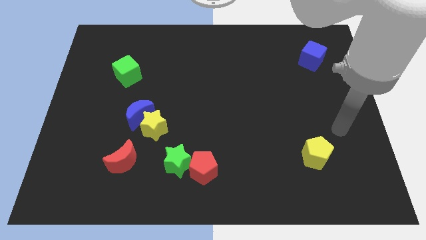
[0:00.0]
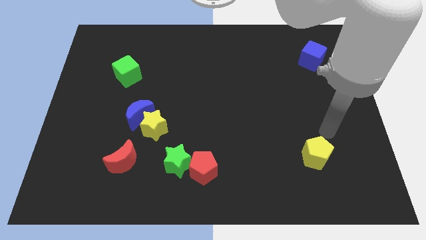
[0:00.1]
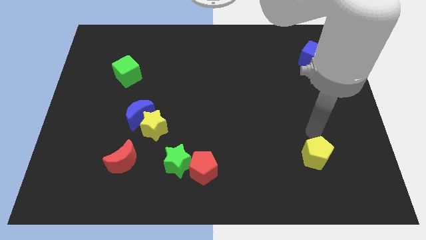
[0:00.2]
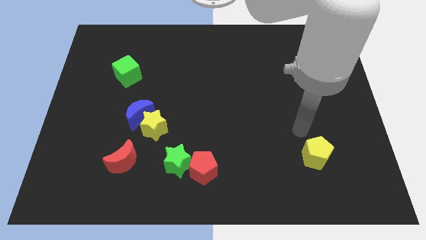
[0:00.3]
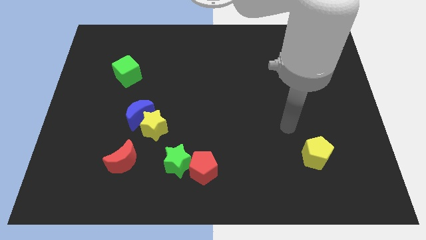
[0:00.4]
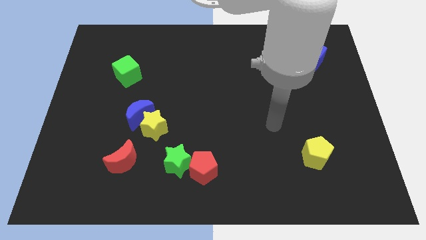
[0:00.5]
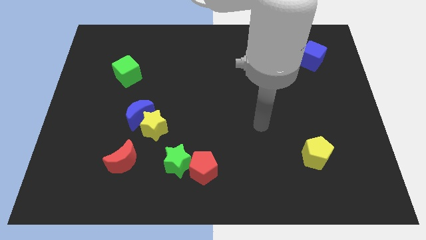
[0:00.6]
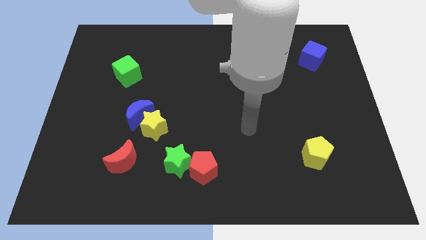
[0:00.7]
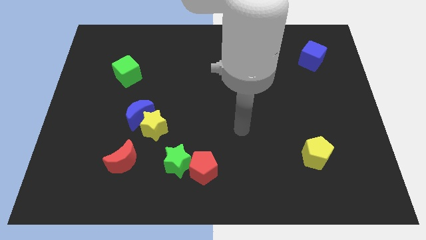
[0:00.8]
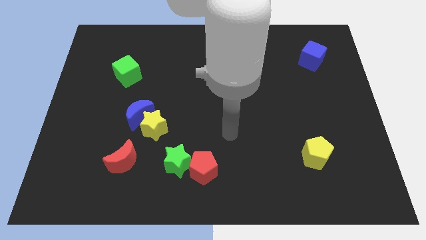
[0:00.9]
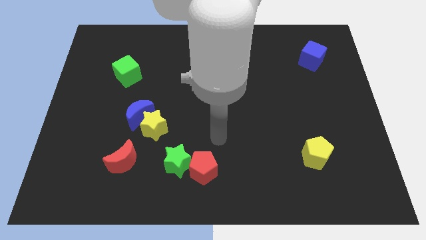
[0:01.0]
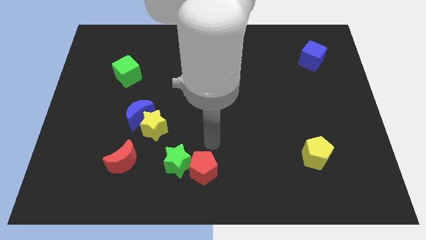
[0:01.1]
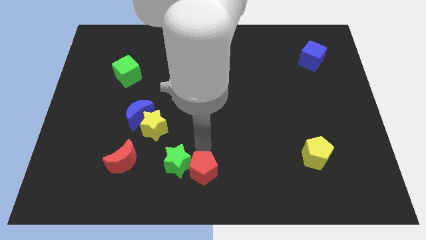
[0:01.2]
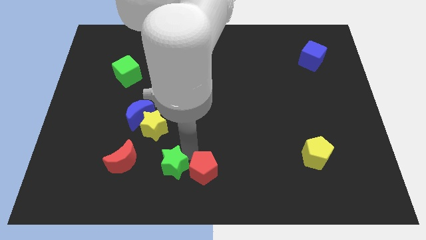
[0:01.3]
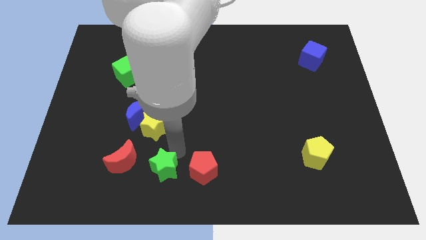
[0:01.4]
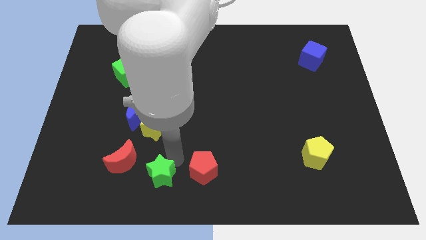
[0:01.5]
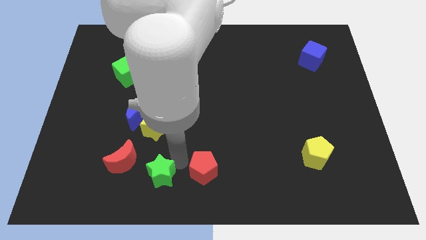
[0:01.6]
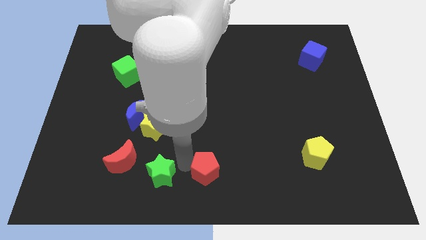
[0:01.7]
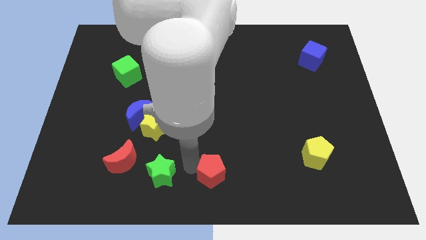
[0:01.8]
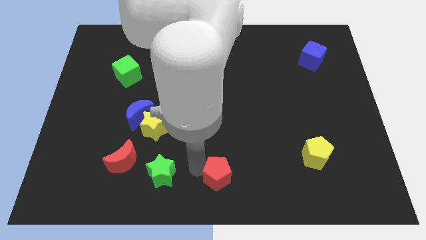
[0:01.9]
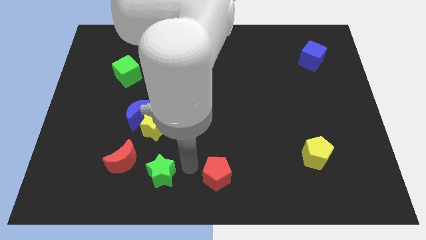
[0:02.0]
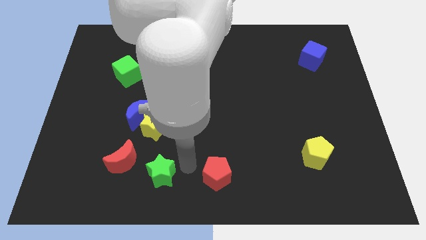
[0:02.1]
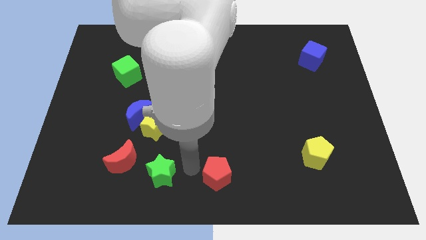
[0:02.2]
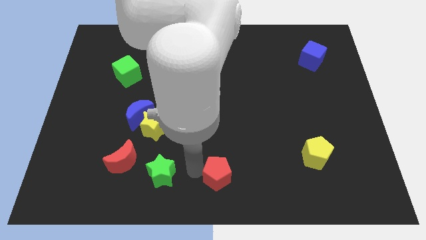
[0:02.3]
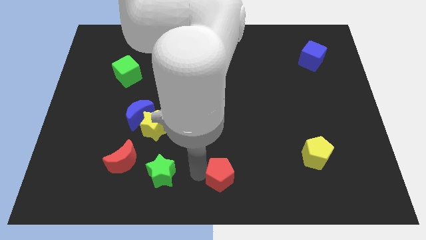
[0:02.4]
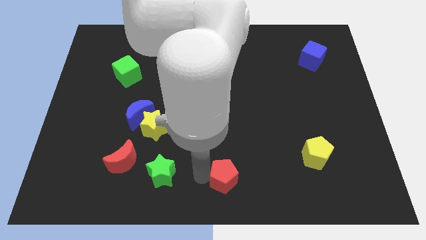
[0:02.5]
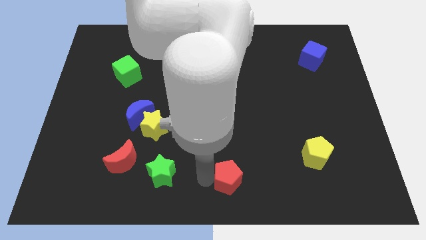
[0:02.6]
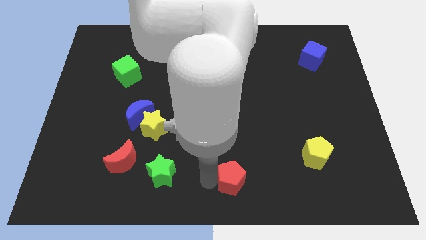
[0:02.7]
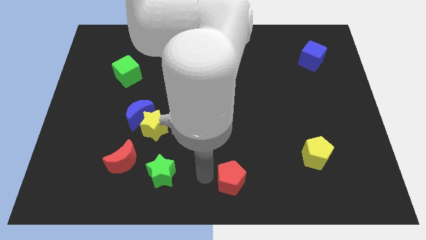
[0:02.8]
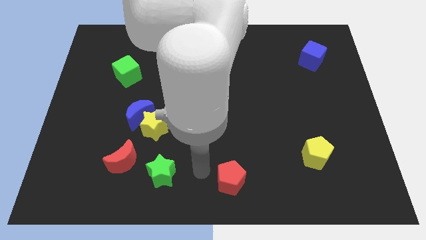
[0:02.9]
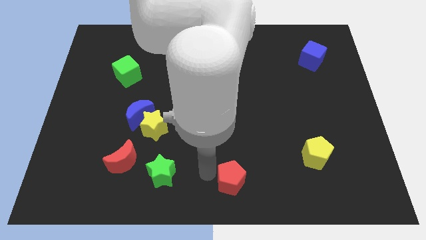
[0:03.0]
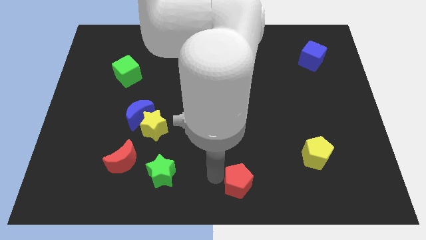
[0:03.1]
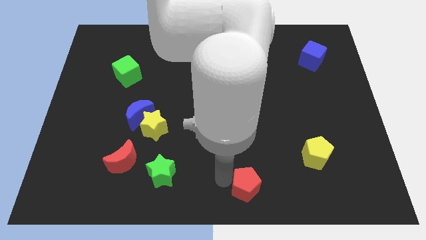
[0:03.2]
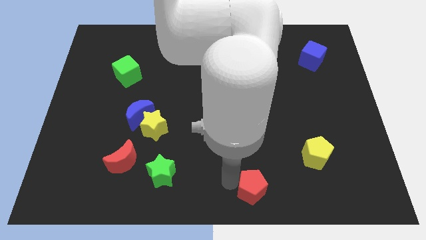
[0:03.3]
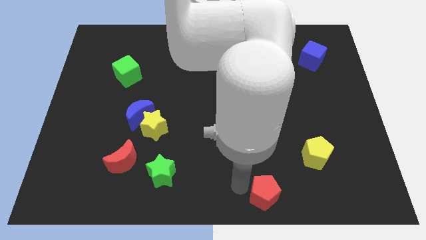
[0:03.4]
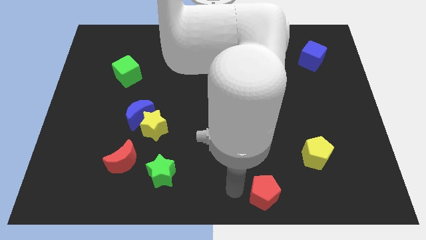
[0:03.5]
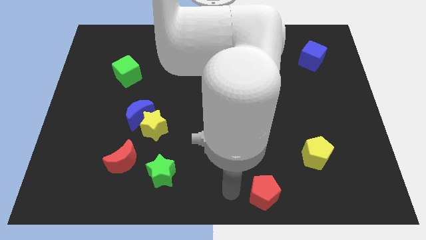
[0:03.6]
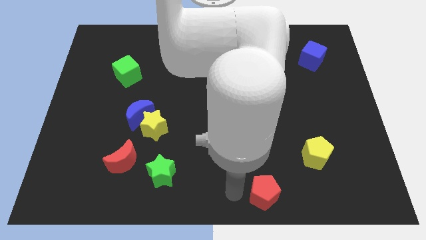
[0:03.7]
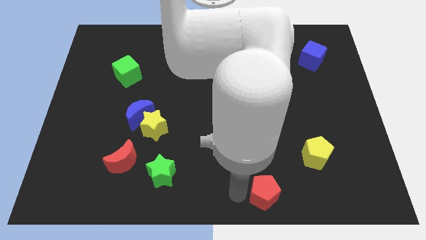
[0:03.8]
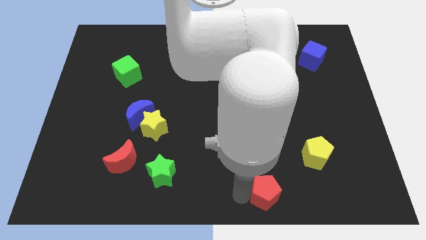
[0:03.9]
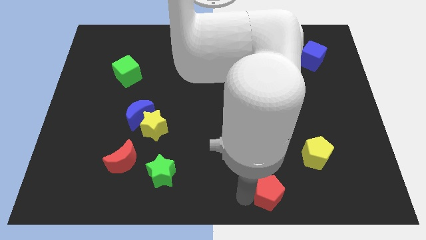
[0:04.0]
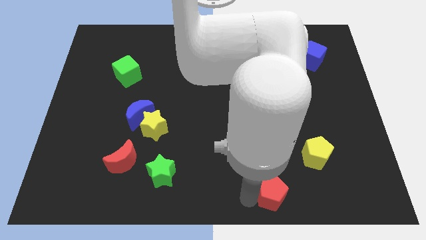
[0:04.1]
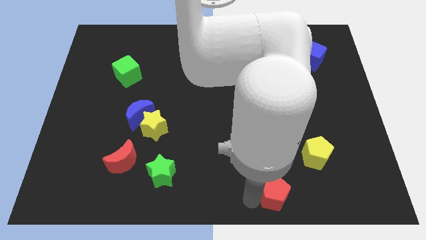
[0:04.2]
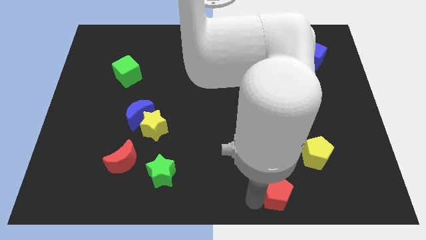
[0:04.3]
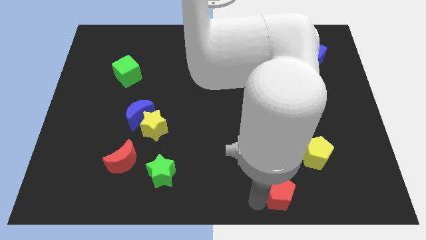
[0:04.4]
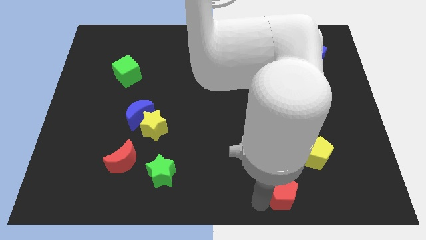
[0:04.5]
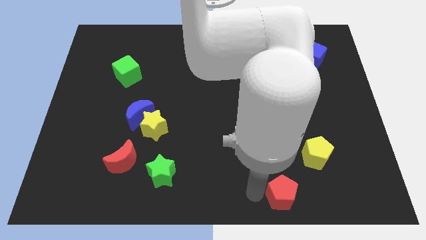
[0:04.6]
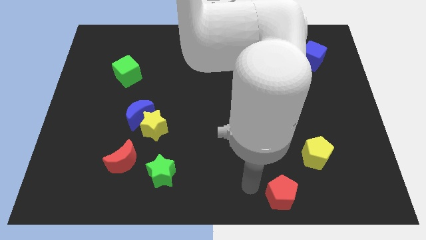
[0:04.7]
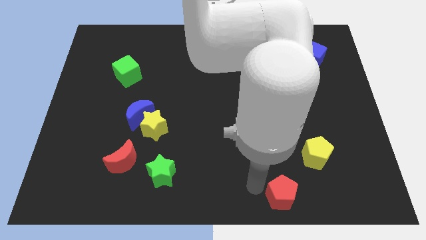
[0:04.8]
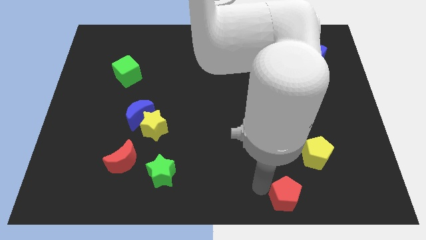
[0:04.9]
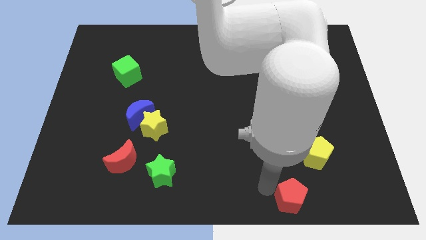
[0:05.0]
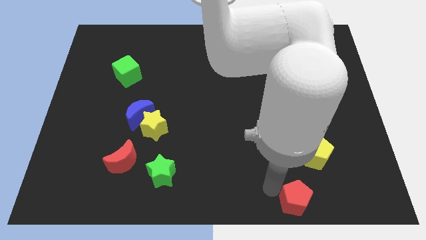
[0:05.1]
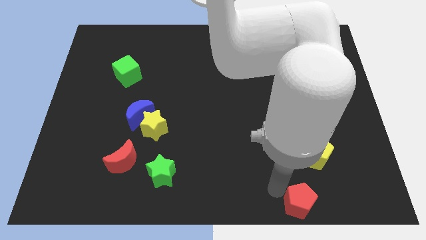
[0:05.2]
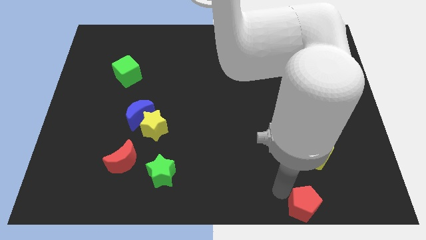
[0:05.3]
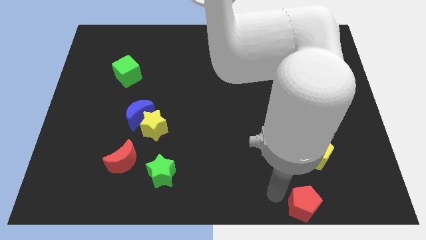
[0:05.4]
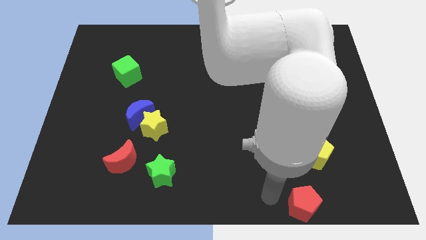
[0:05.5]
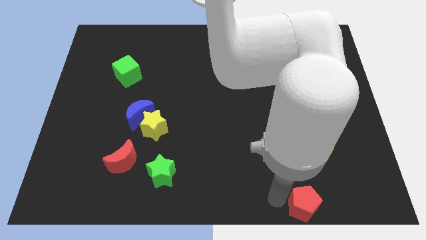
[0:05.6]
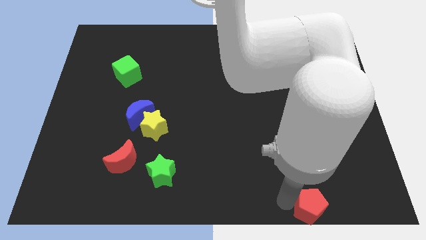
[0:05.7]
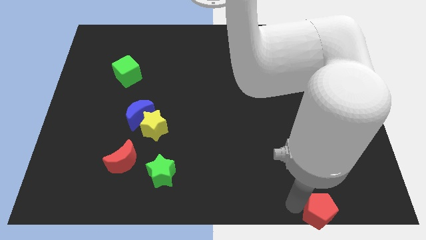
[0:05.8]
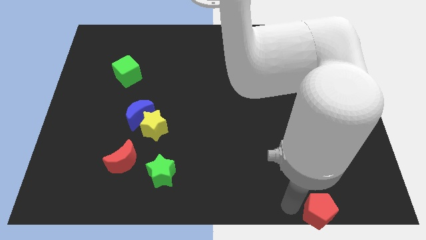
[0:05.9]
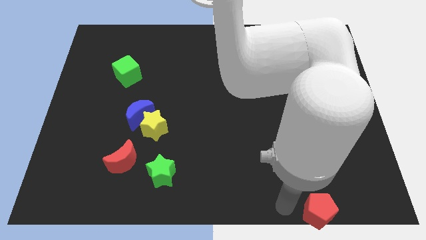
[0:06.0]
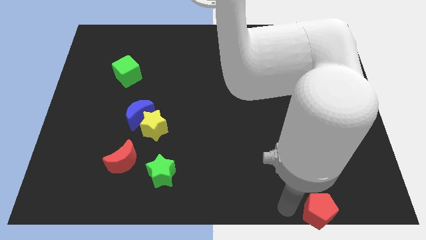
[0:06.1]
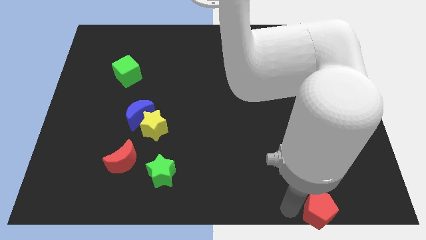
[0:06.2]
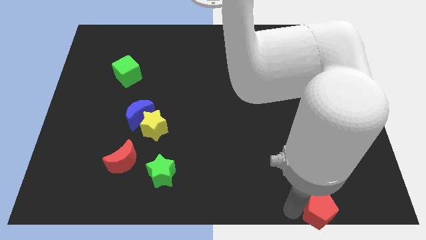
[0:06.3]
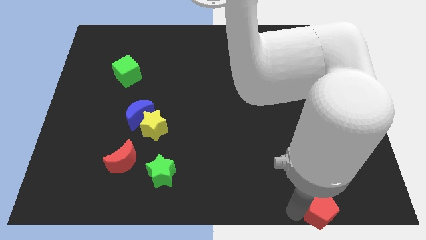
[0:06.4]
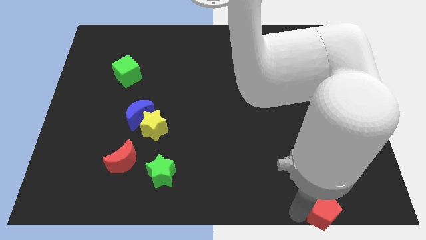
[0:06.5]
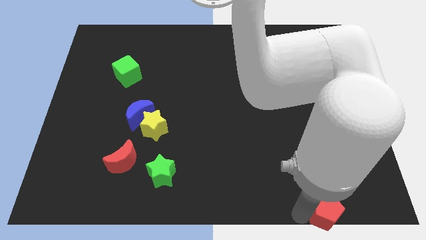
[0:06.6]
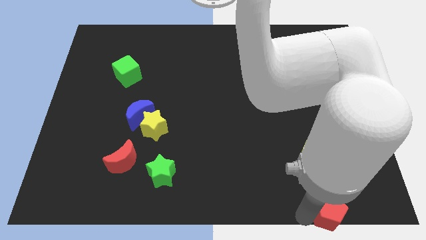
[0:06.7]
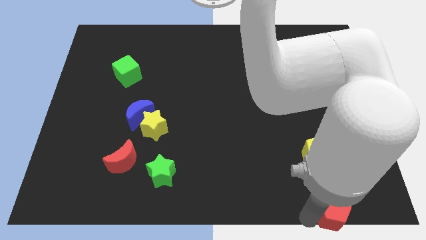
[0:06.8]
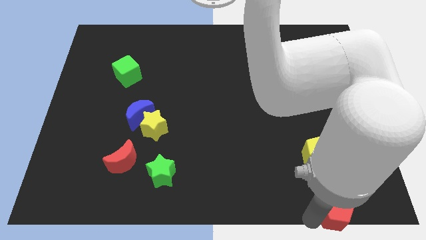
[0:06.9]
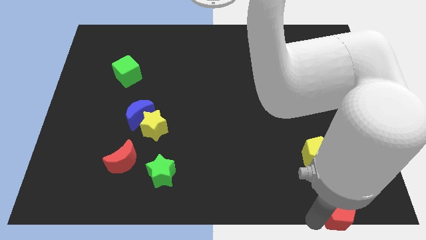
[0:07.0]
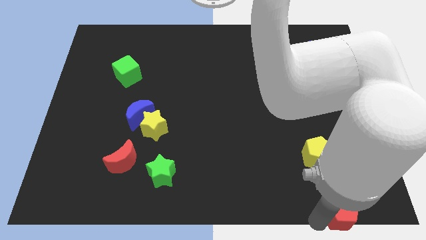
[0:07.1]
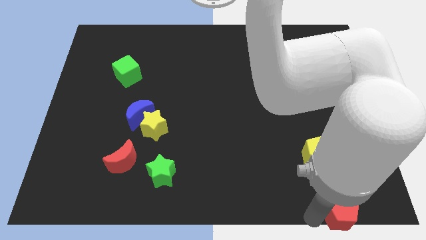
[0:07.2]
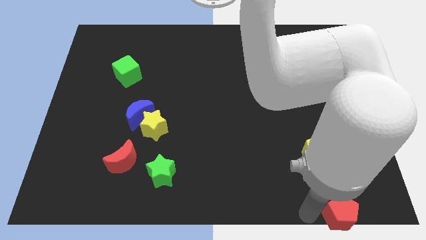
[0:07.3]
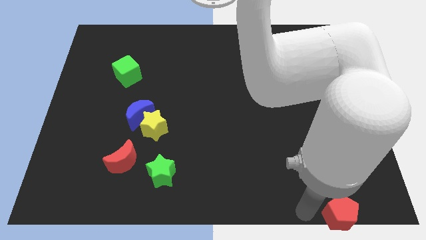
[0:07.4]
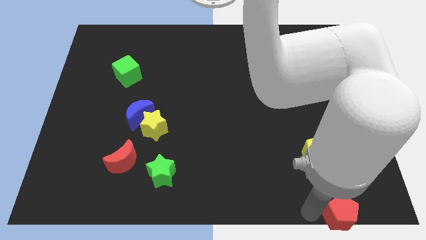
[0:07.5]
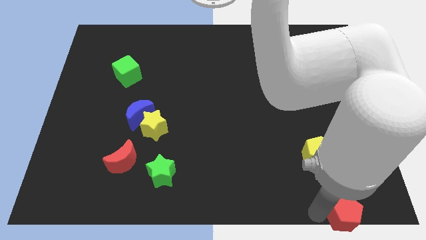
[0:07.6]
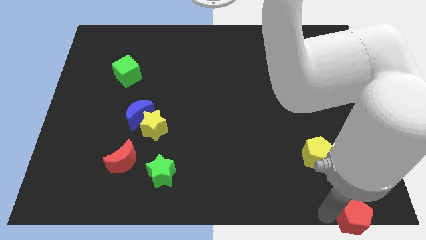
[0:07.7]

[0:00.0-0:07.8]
push the red pentagon to the bottom right of the board
